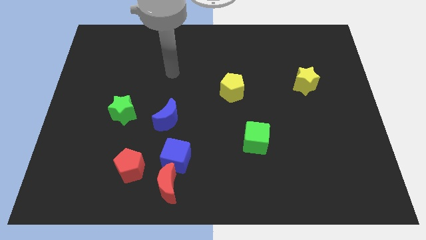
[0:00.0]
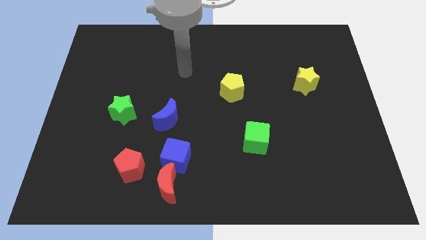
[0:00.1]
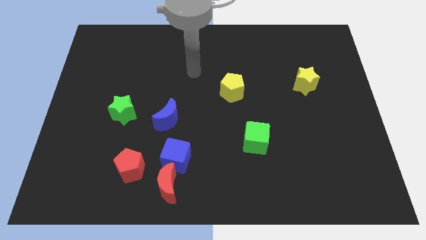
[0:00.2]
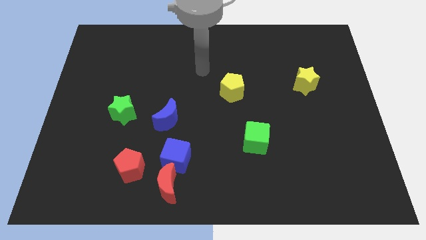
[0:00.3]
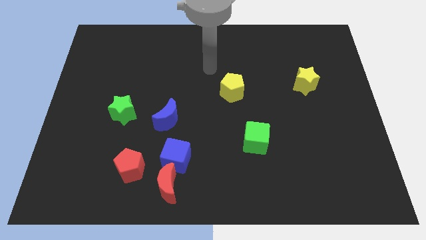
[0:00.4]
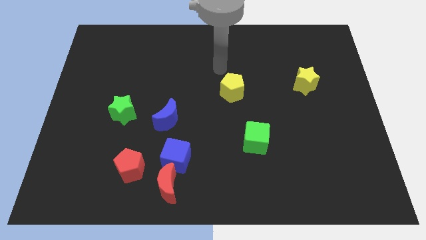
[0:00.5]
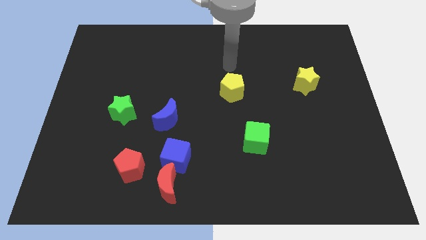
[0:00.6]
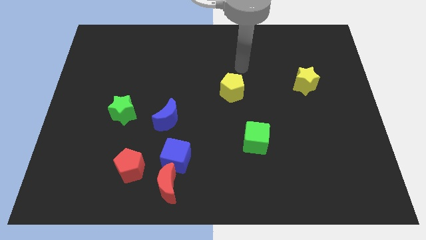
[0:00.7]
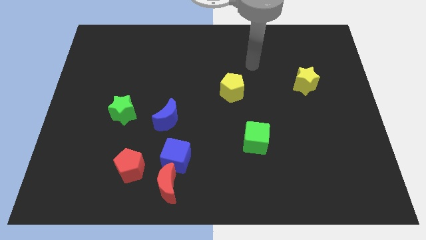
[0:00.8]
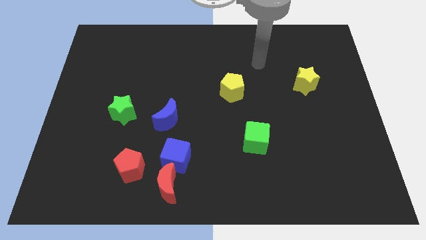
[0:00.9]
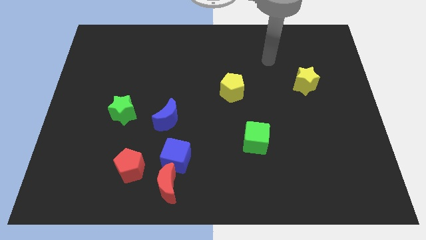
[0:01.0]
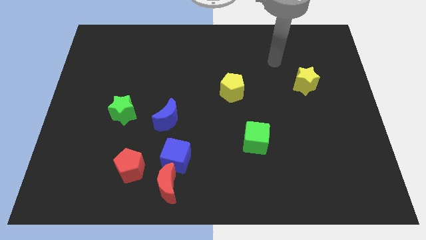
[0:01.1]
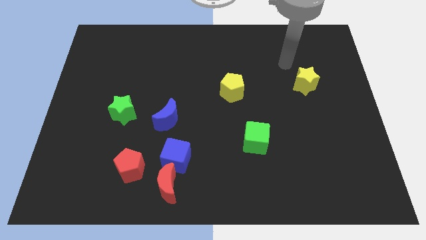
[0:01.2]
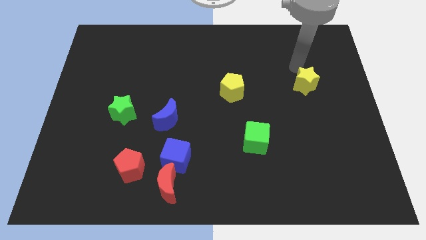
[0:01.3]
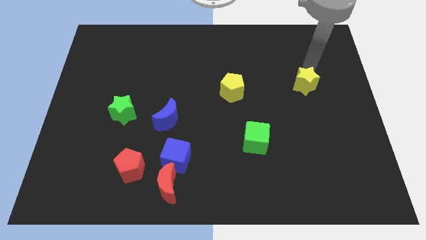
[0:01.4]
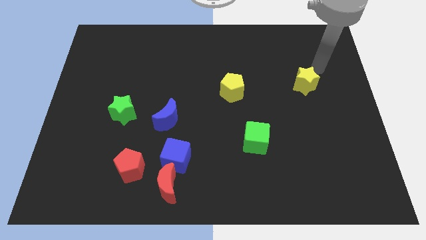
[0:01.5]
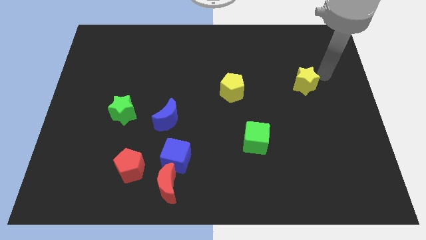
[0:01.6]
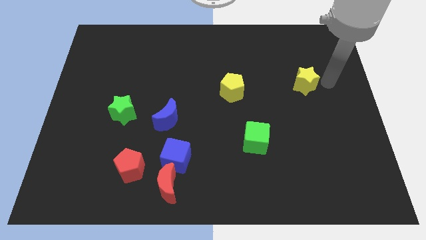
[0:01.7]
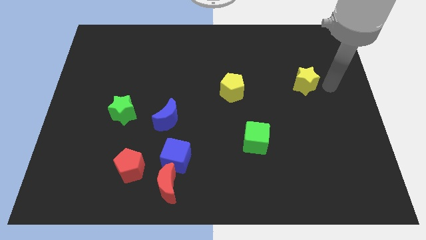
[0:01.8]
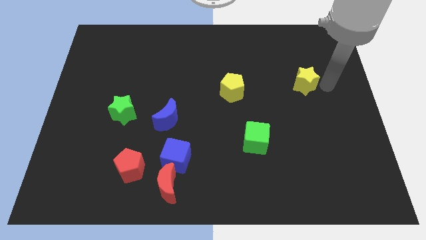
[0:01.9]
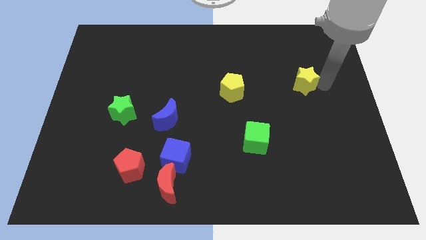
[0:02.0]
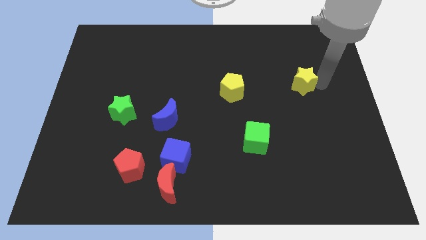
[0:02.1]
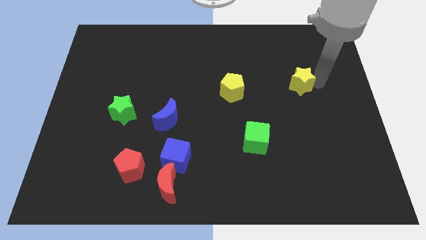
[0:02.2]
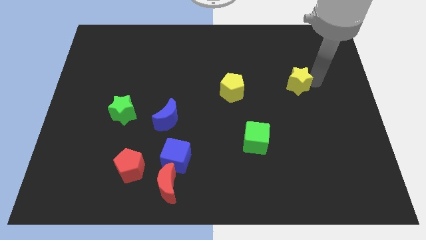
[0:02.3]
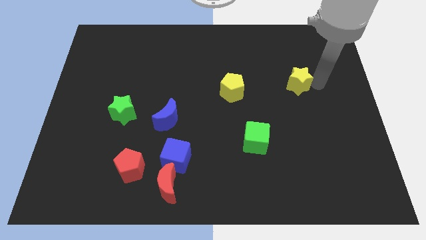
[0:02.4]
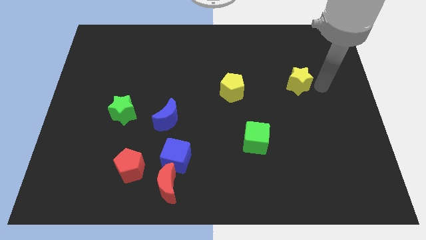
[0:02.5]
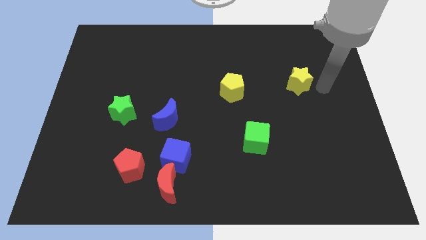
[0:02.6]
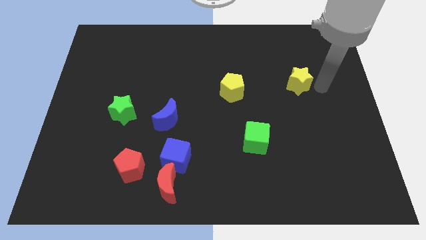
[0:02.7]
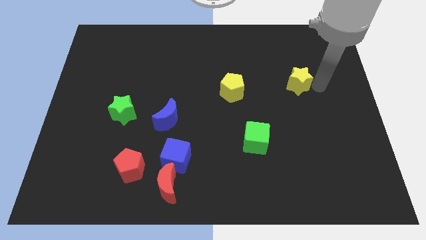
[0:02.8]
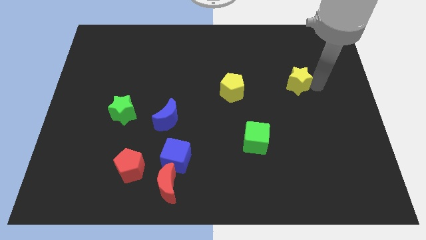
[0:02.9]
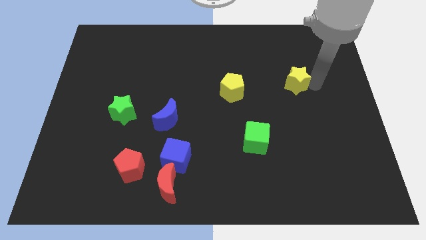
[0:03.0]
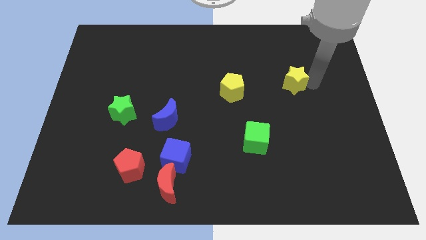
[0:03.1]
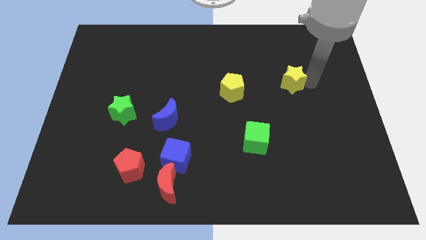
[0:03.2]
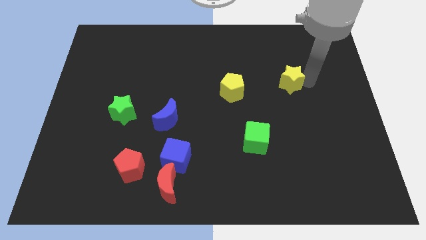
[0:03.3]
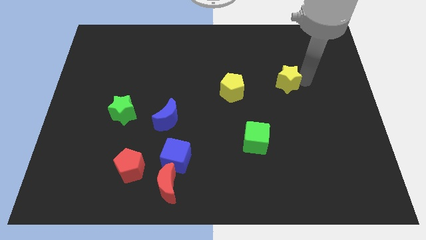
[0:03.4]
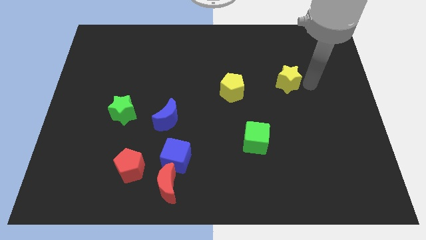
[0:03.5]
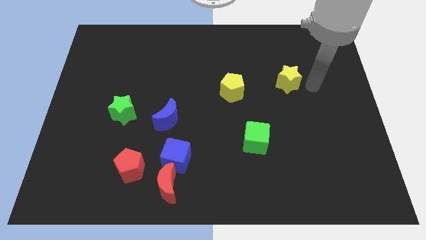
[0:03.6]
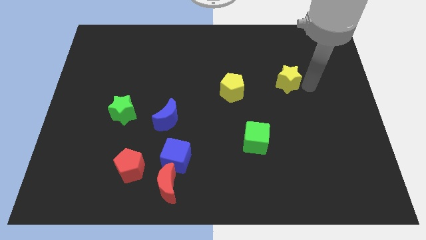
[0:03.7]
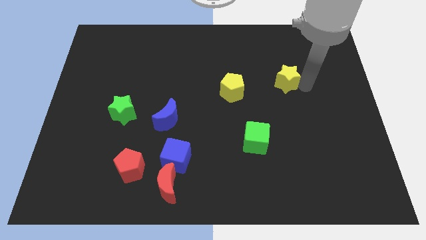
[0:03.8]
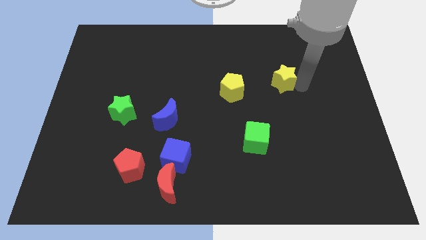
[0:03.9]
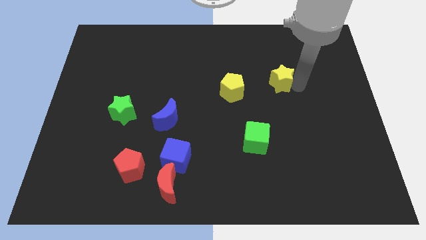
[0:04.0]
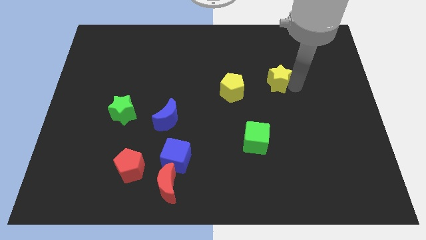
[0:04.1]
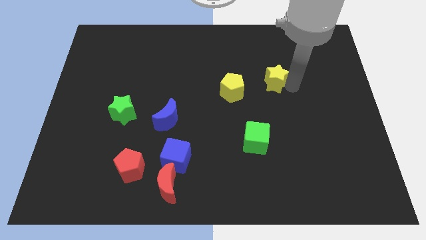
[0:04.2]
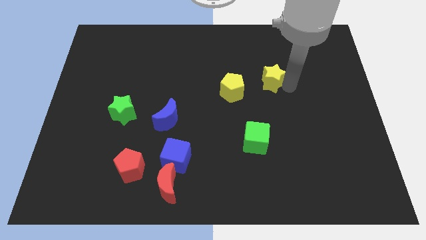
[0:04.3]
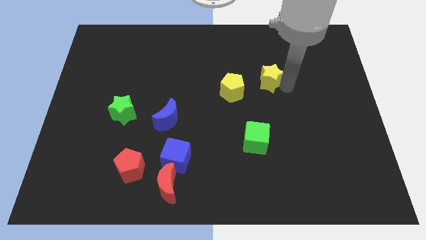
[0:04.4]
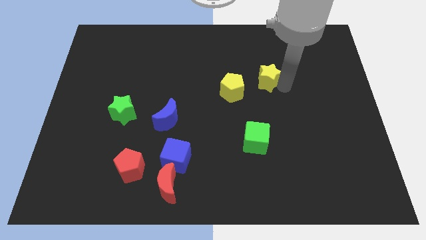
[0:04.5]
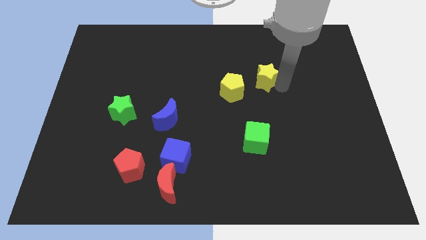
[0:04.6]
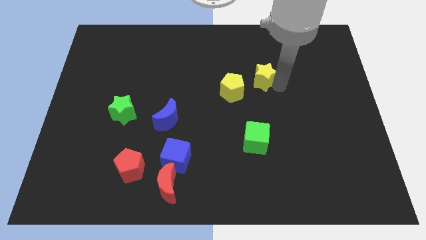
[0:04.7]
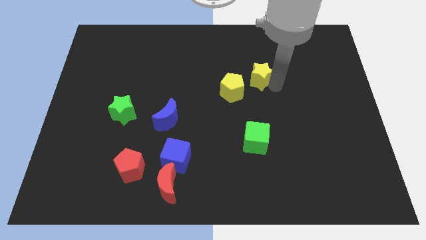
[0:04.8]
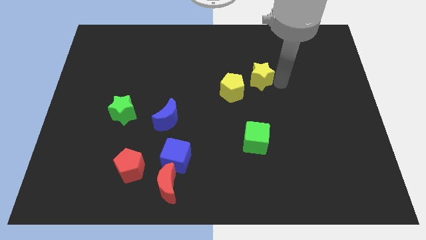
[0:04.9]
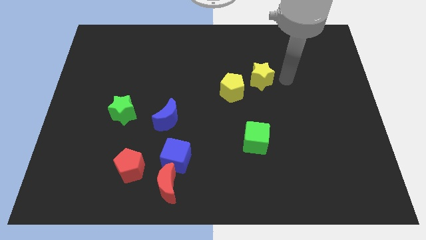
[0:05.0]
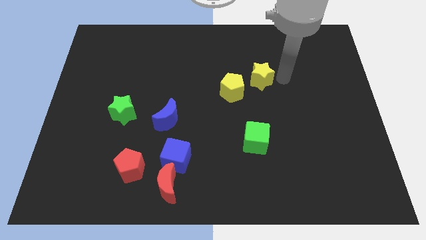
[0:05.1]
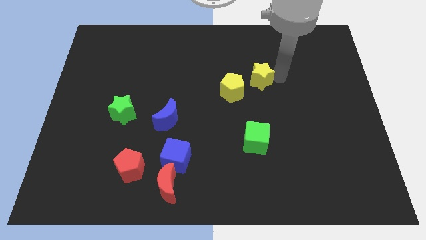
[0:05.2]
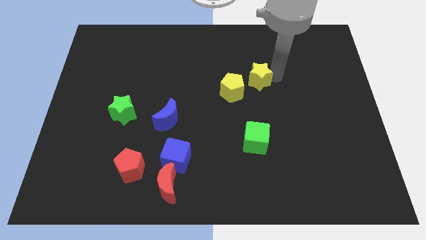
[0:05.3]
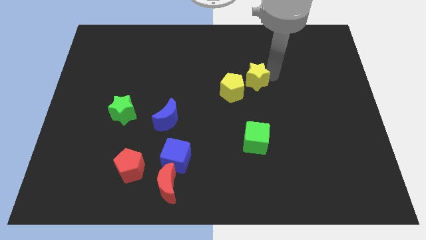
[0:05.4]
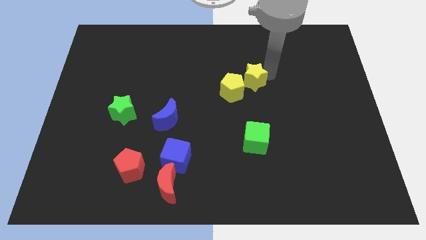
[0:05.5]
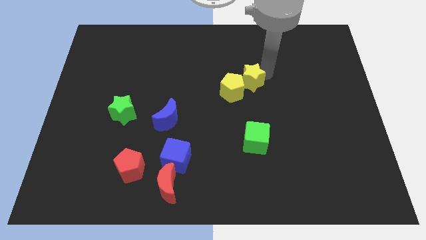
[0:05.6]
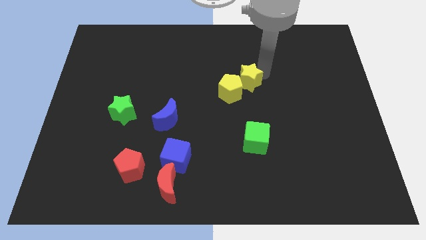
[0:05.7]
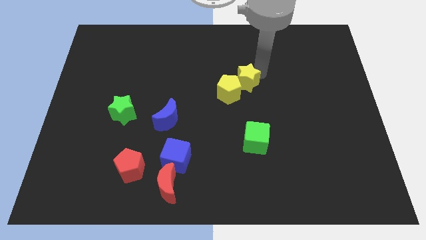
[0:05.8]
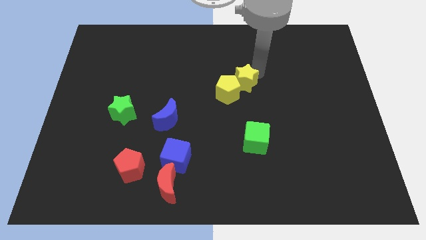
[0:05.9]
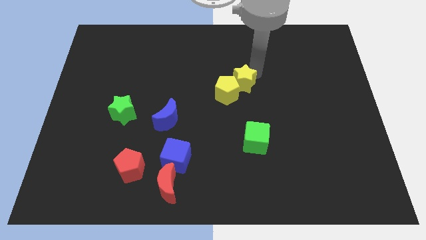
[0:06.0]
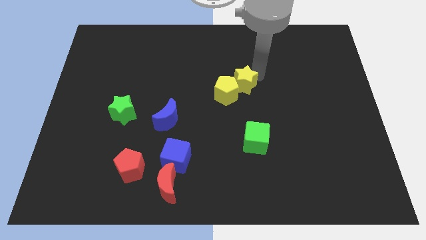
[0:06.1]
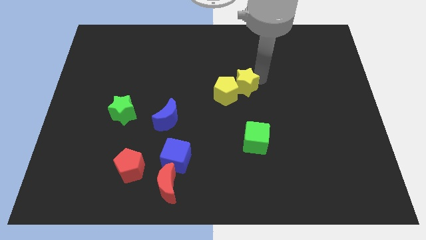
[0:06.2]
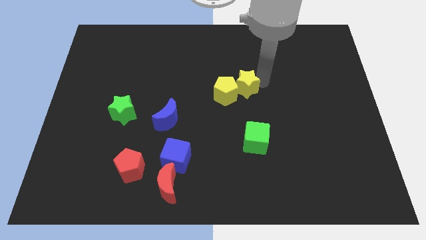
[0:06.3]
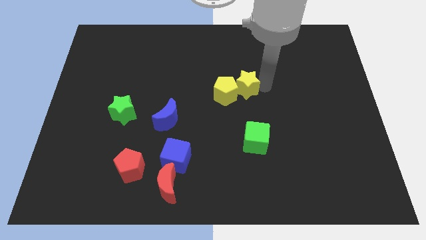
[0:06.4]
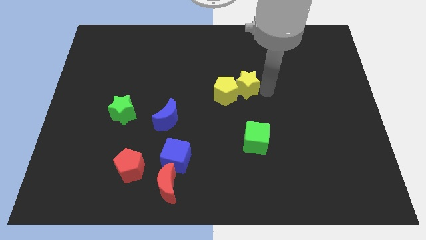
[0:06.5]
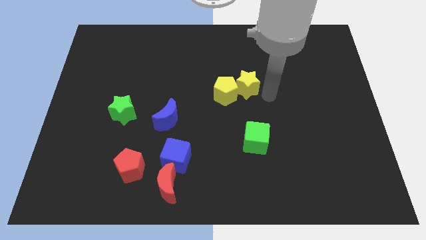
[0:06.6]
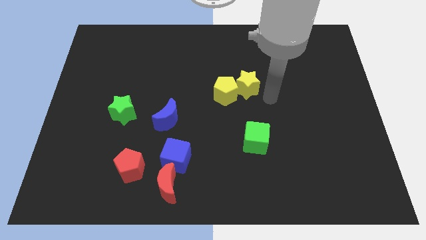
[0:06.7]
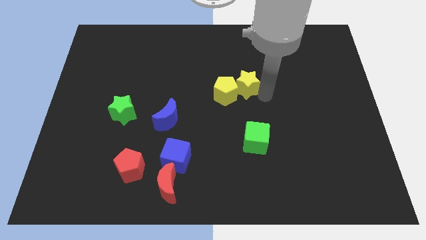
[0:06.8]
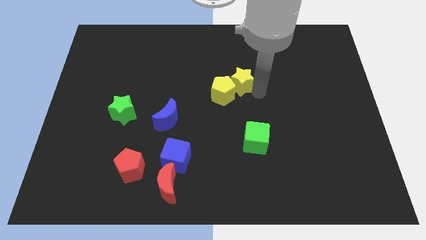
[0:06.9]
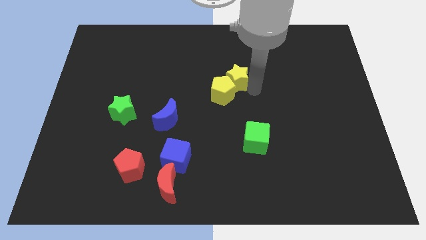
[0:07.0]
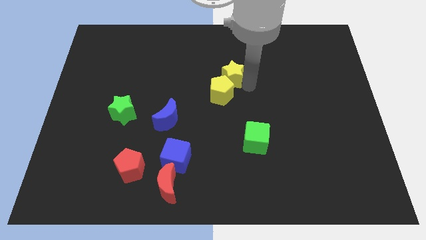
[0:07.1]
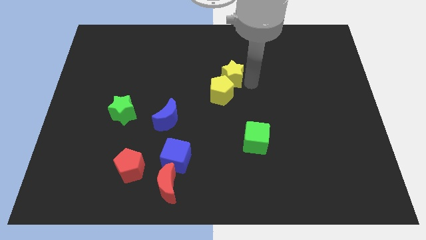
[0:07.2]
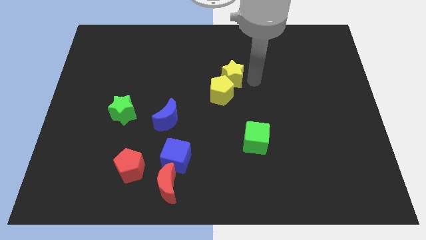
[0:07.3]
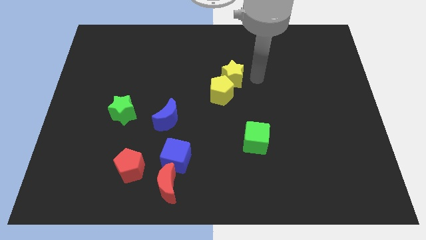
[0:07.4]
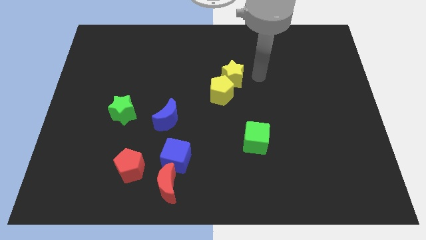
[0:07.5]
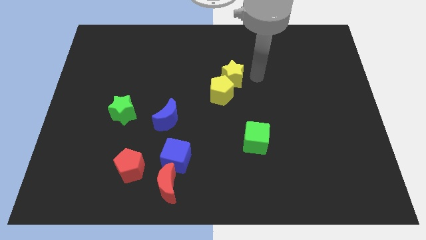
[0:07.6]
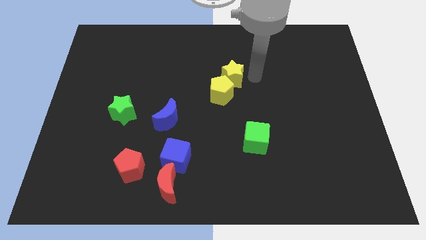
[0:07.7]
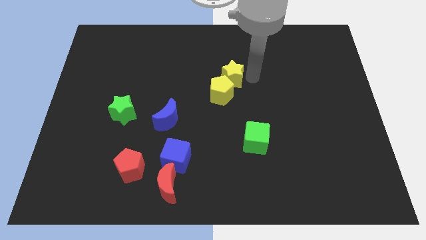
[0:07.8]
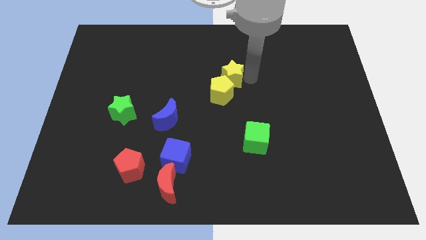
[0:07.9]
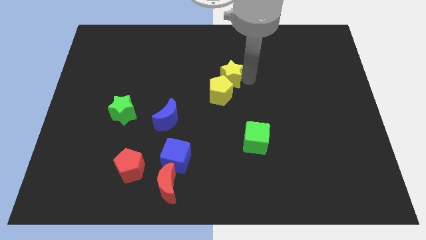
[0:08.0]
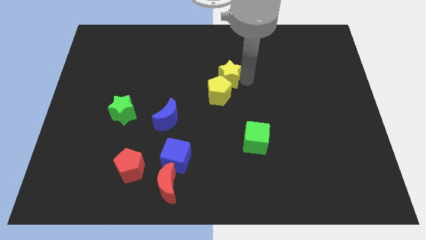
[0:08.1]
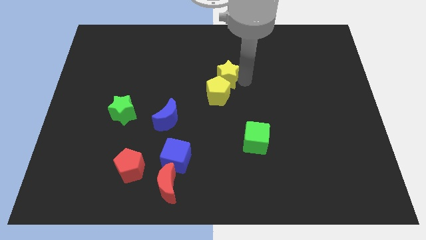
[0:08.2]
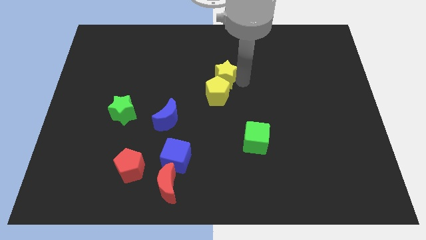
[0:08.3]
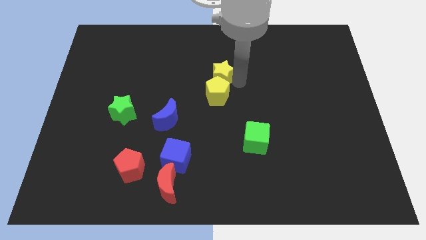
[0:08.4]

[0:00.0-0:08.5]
slide the yellow star to the left
